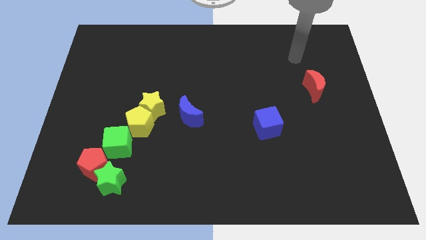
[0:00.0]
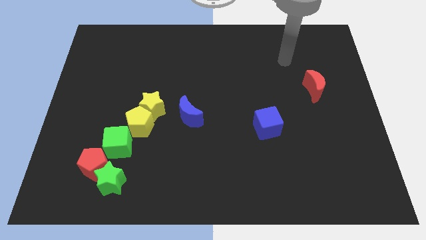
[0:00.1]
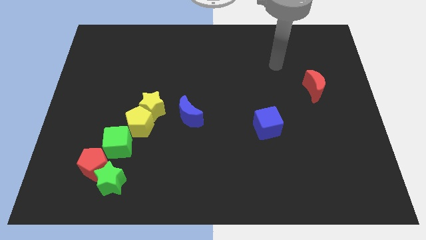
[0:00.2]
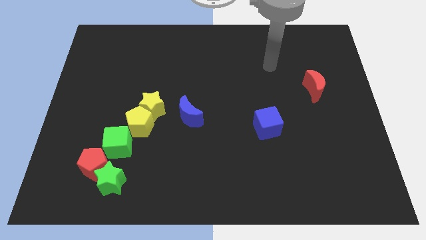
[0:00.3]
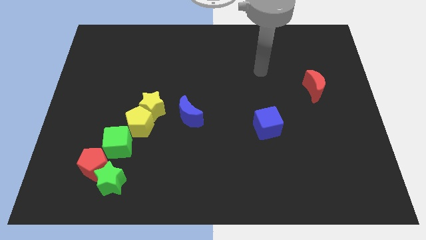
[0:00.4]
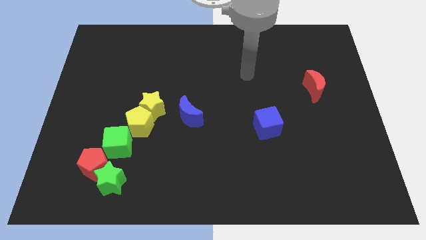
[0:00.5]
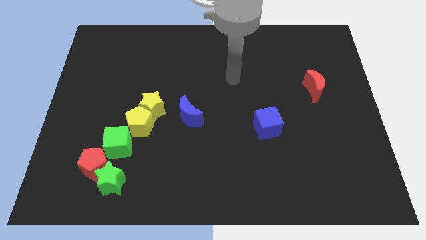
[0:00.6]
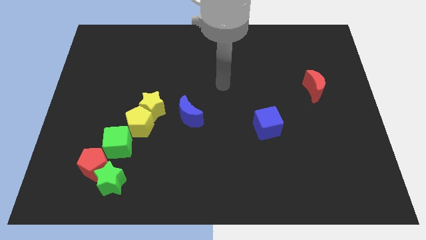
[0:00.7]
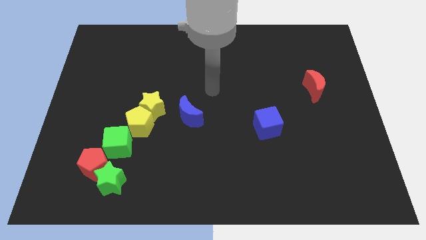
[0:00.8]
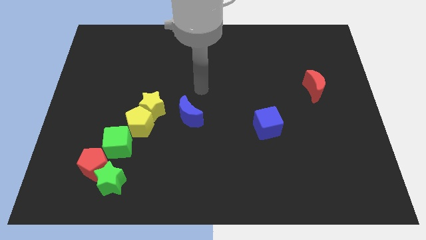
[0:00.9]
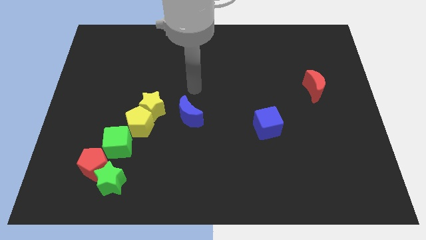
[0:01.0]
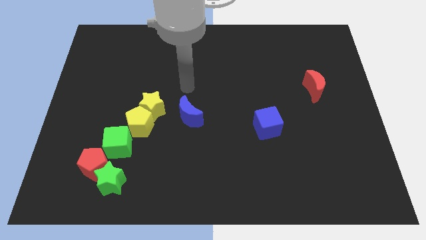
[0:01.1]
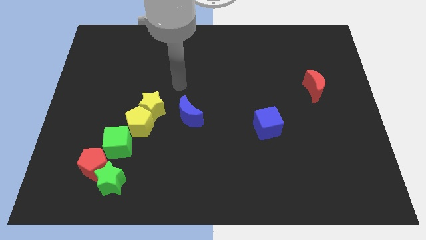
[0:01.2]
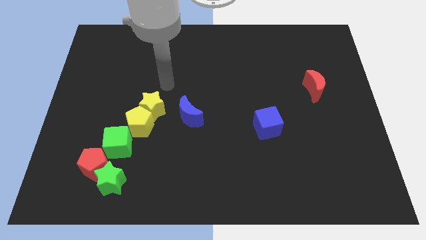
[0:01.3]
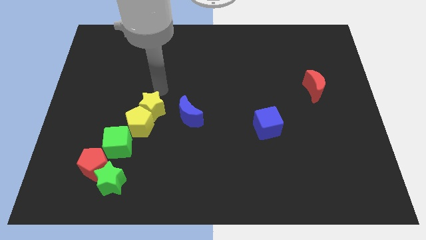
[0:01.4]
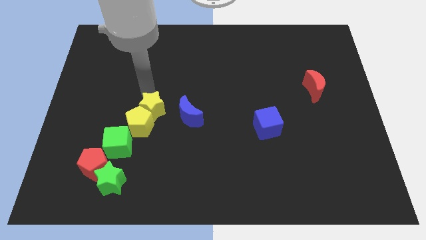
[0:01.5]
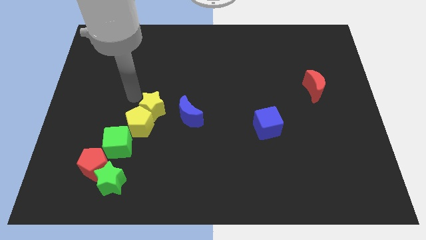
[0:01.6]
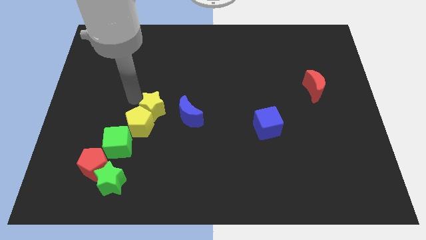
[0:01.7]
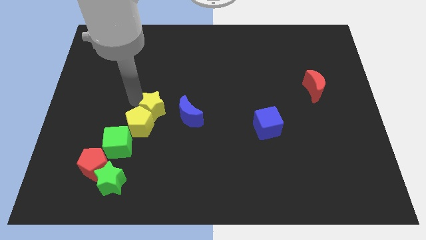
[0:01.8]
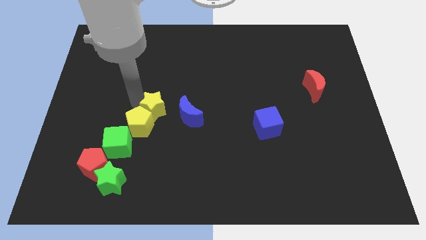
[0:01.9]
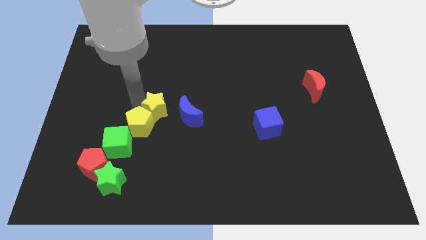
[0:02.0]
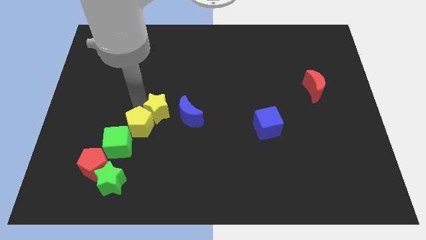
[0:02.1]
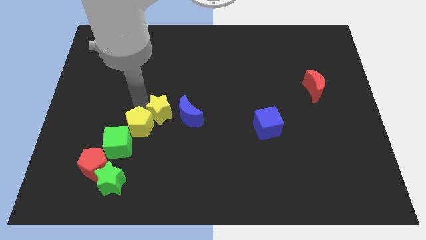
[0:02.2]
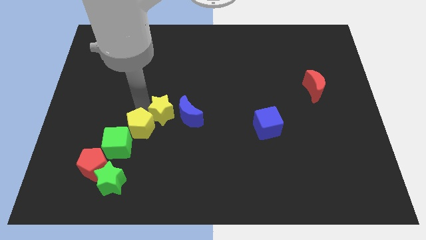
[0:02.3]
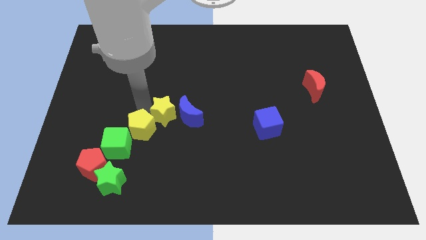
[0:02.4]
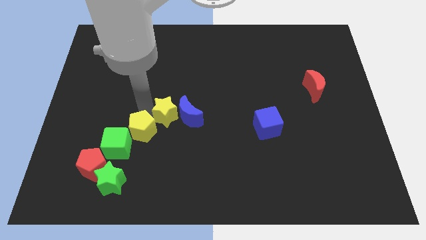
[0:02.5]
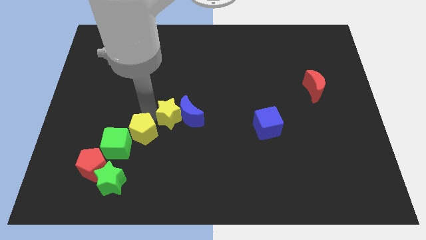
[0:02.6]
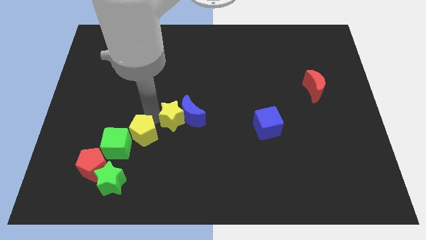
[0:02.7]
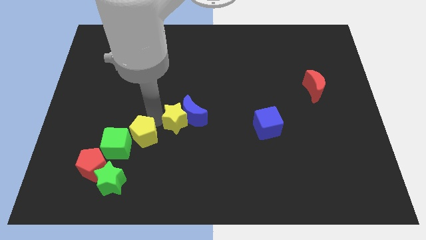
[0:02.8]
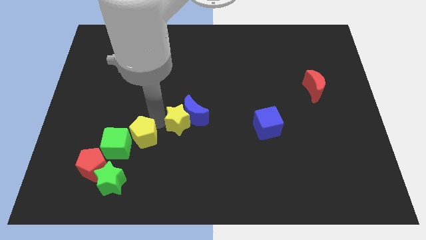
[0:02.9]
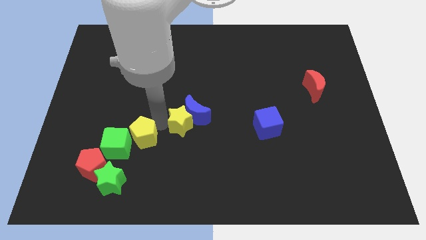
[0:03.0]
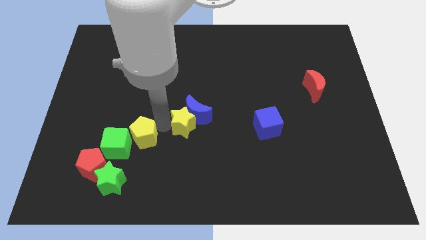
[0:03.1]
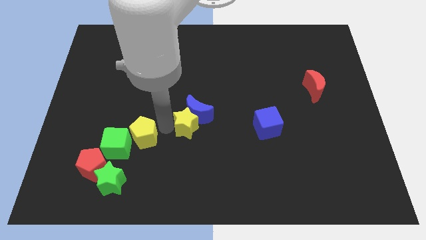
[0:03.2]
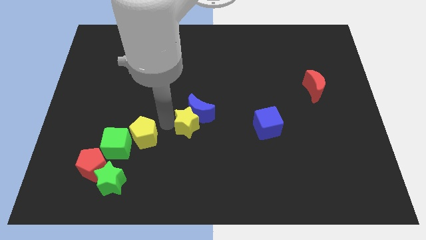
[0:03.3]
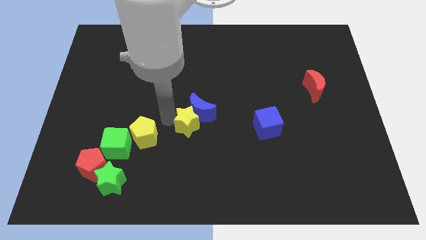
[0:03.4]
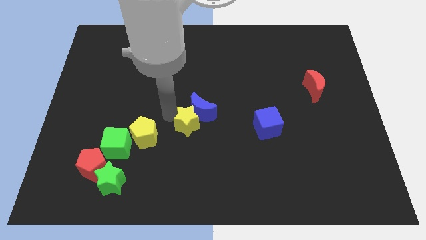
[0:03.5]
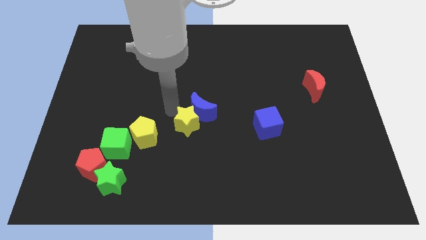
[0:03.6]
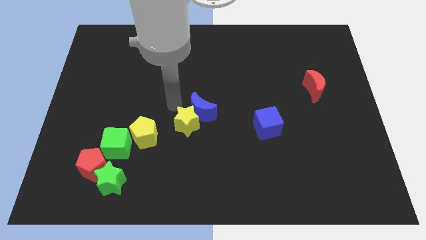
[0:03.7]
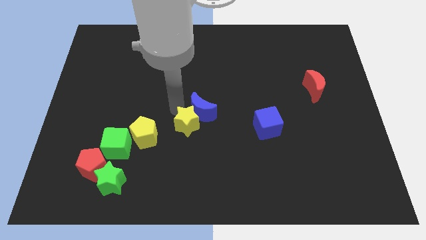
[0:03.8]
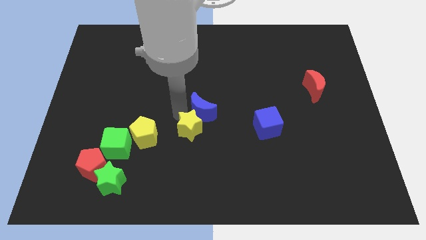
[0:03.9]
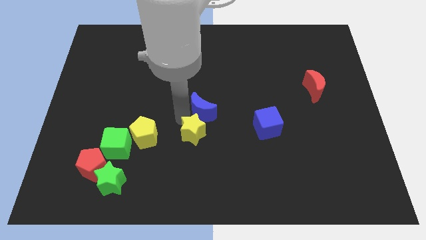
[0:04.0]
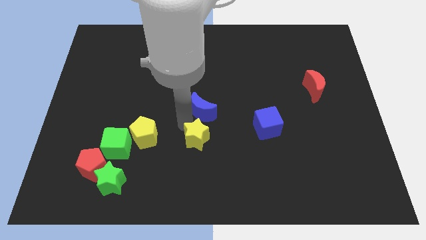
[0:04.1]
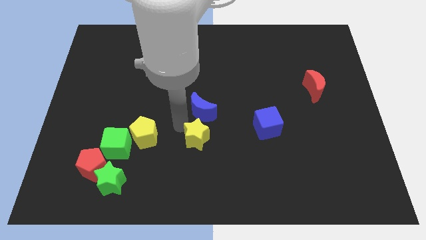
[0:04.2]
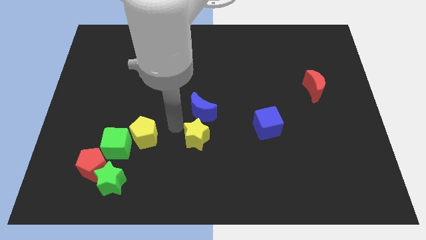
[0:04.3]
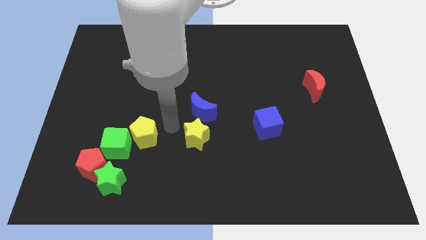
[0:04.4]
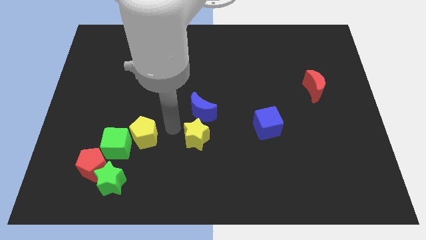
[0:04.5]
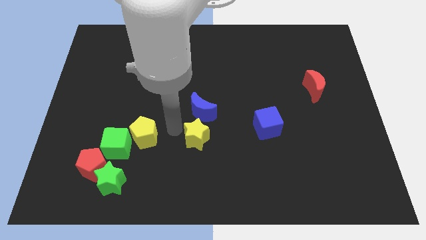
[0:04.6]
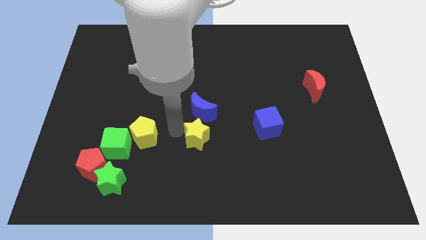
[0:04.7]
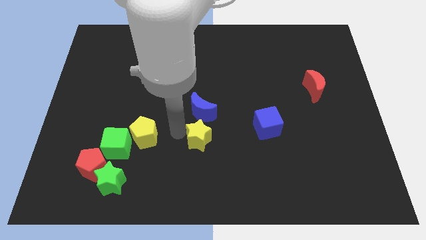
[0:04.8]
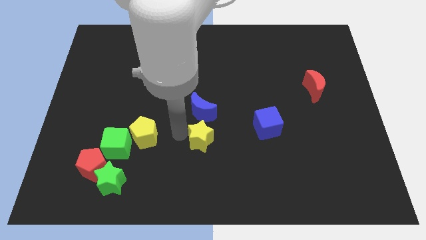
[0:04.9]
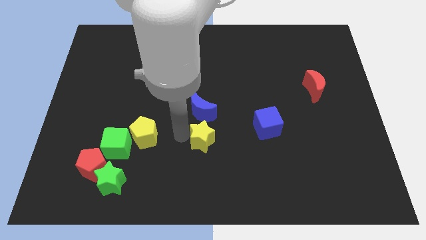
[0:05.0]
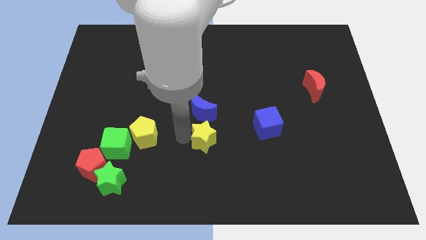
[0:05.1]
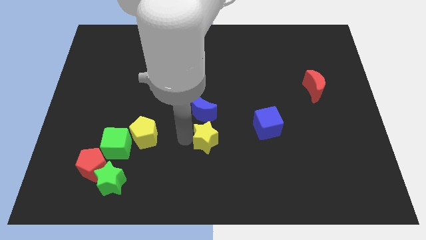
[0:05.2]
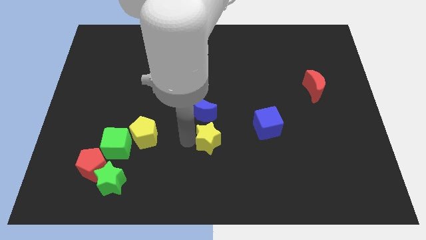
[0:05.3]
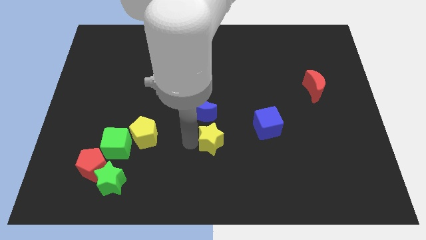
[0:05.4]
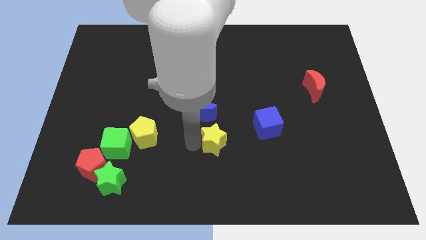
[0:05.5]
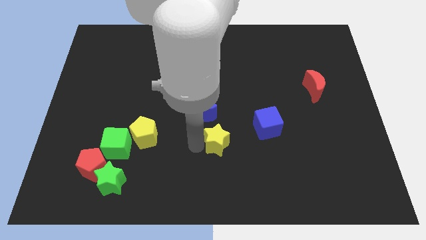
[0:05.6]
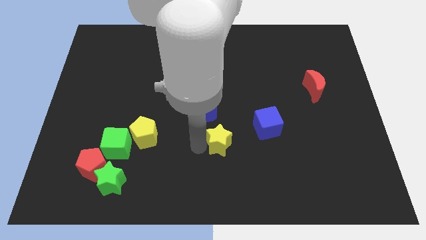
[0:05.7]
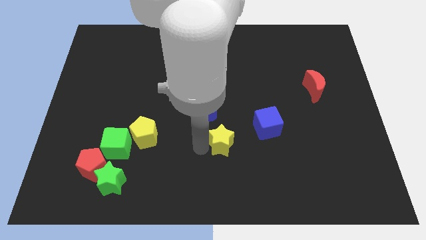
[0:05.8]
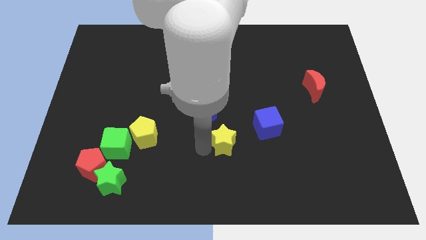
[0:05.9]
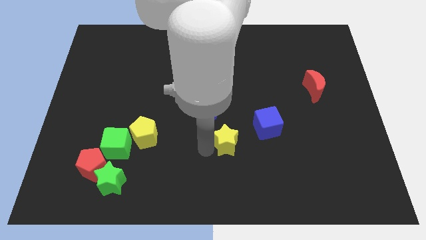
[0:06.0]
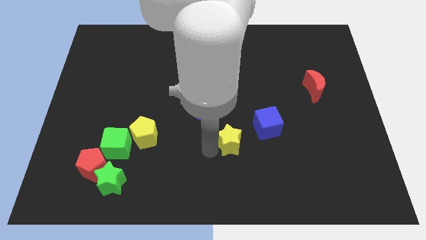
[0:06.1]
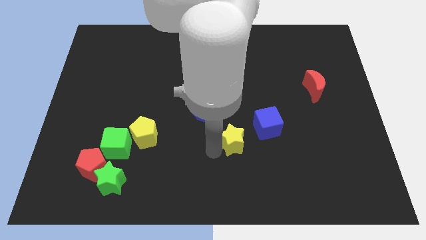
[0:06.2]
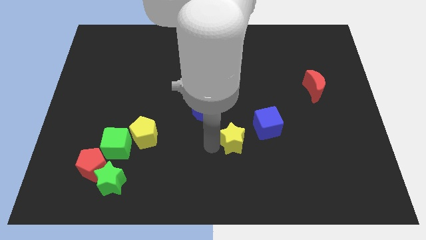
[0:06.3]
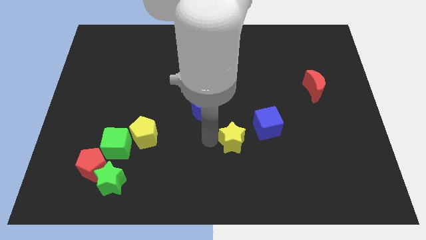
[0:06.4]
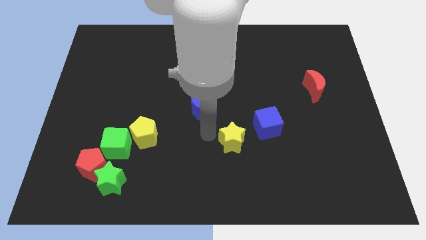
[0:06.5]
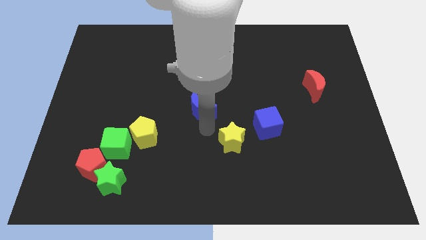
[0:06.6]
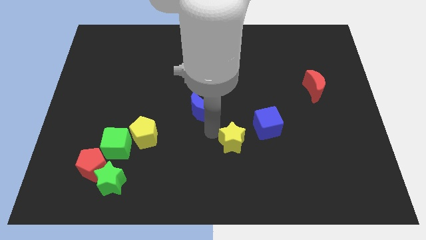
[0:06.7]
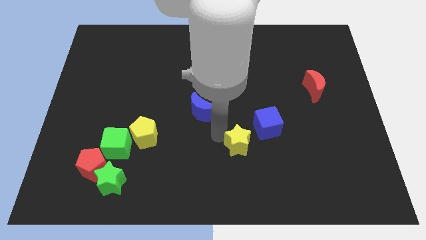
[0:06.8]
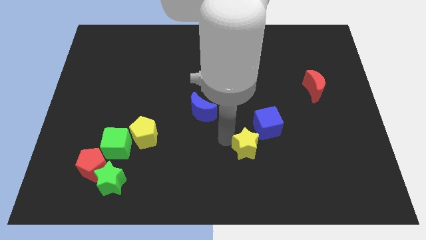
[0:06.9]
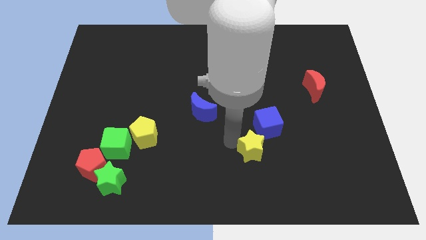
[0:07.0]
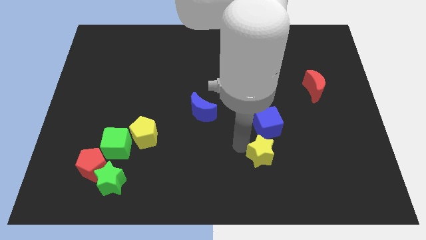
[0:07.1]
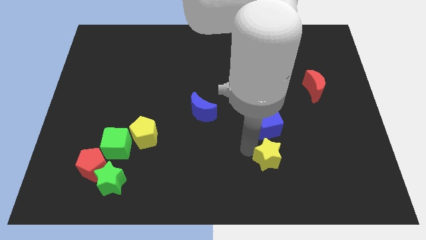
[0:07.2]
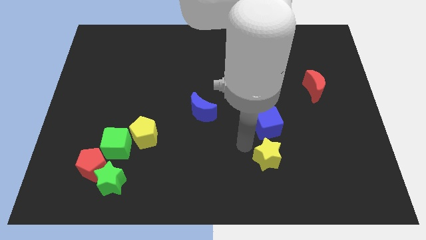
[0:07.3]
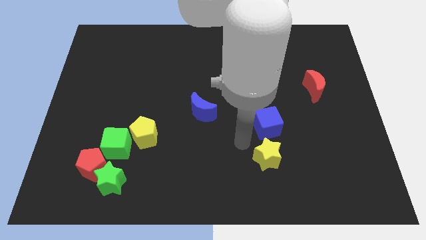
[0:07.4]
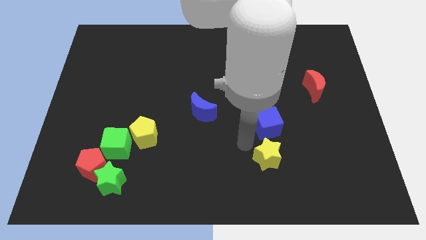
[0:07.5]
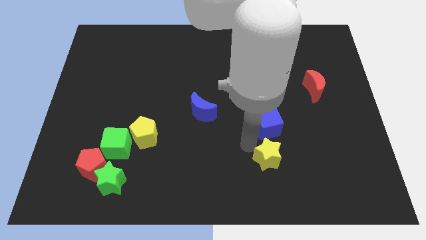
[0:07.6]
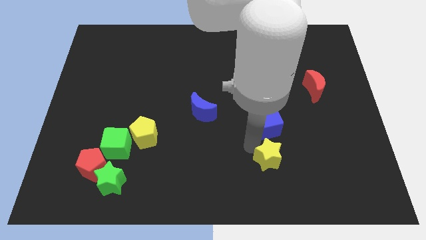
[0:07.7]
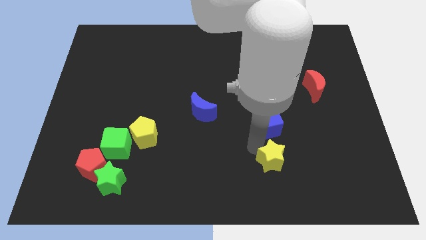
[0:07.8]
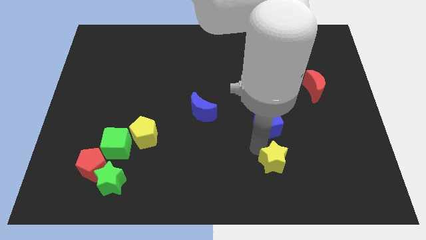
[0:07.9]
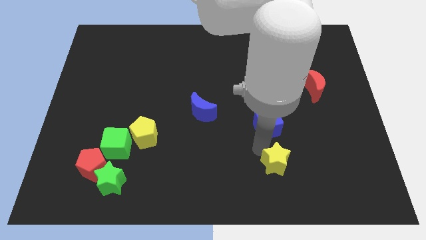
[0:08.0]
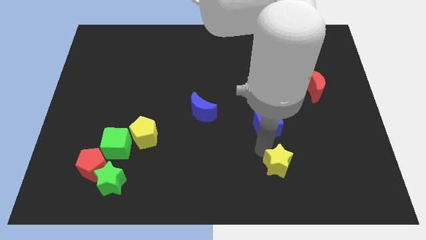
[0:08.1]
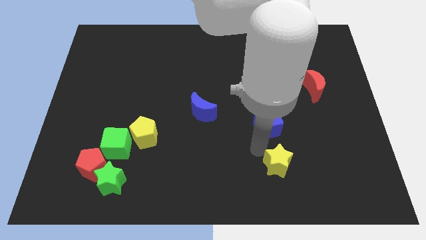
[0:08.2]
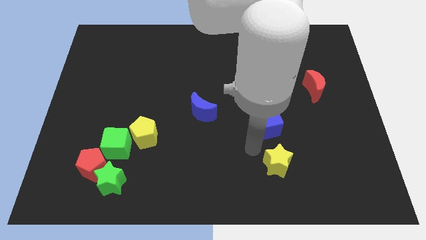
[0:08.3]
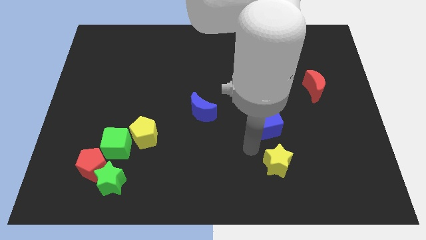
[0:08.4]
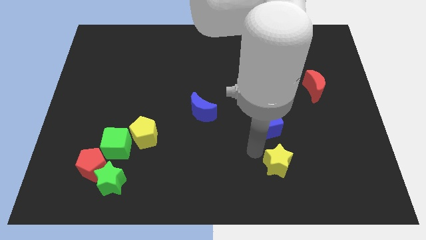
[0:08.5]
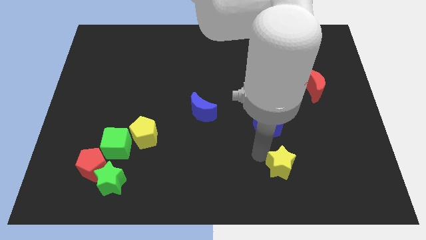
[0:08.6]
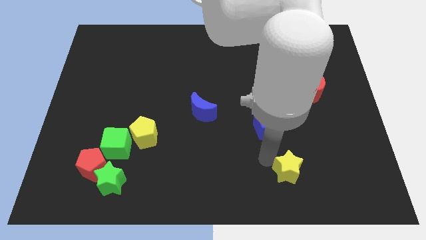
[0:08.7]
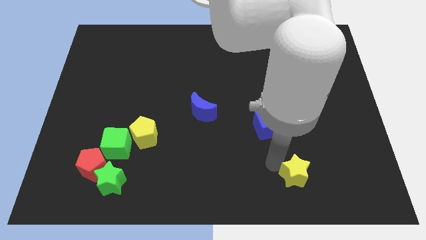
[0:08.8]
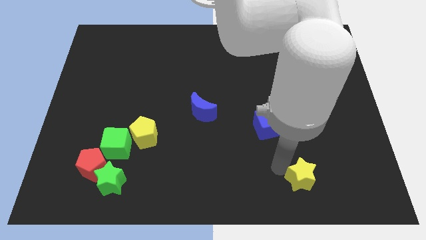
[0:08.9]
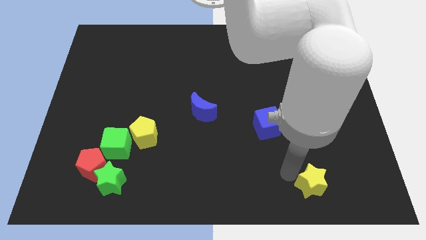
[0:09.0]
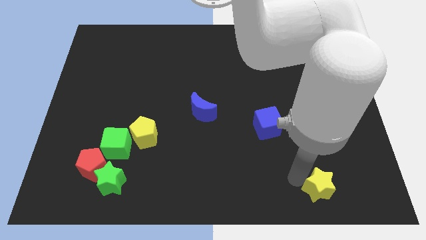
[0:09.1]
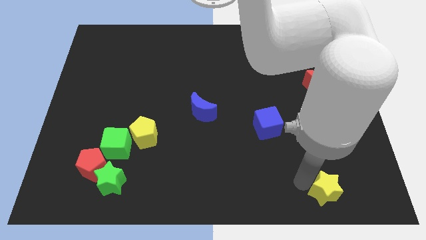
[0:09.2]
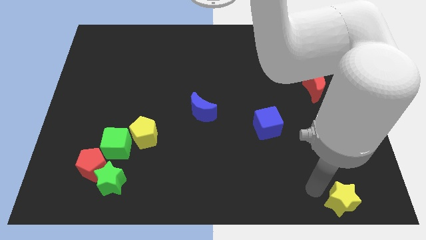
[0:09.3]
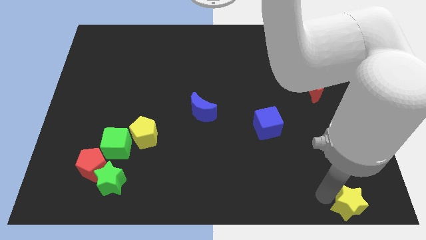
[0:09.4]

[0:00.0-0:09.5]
push the yellow star to the lower right corner
